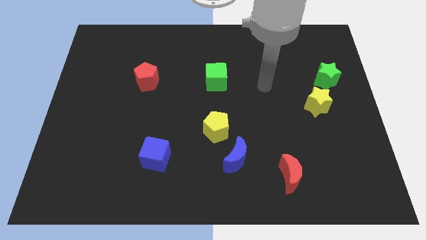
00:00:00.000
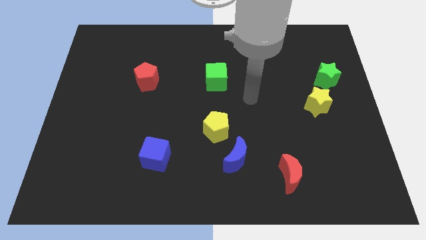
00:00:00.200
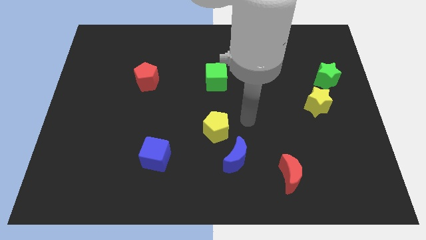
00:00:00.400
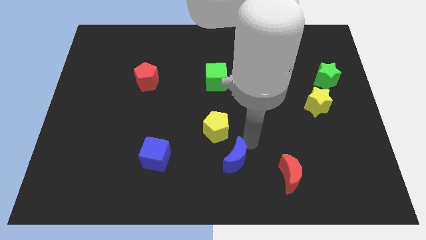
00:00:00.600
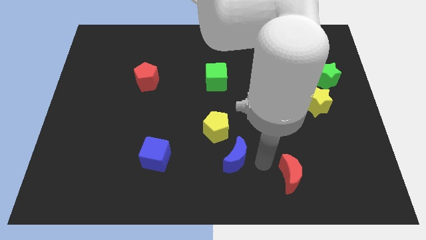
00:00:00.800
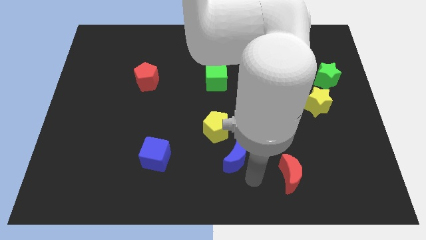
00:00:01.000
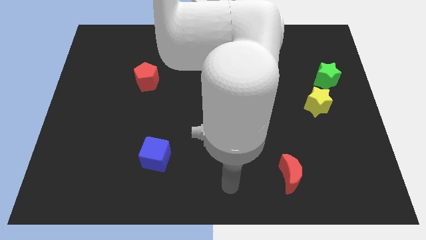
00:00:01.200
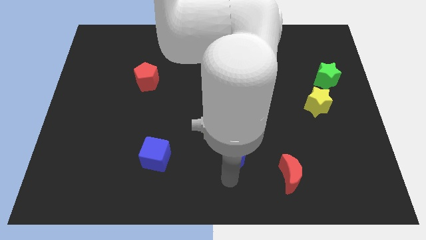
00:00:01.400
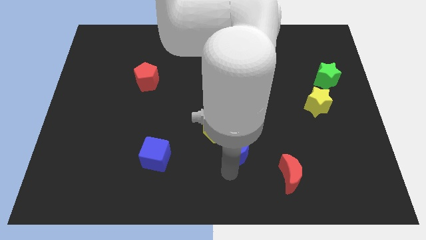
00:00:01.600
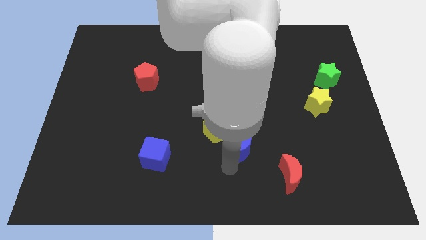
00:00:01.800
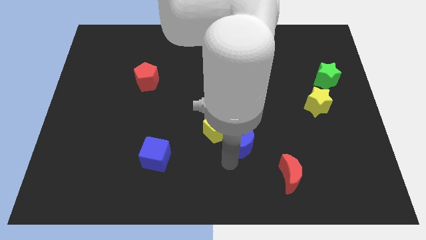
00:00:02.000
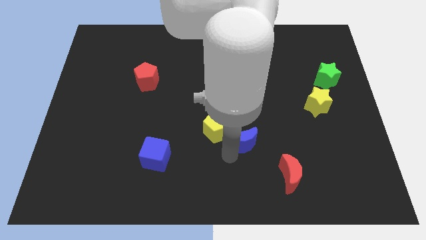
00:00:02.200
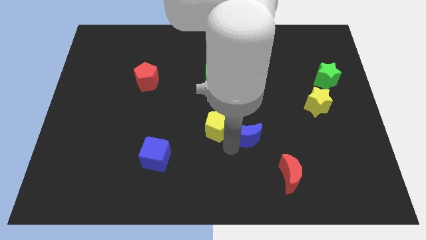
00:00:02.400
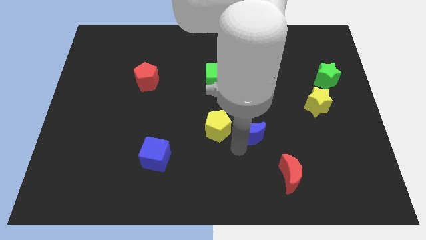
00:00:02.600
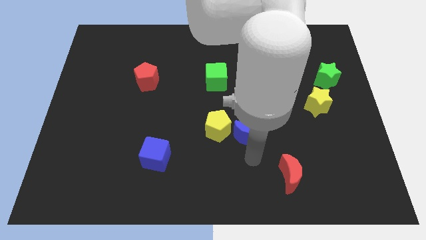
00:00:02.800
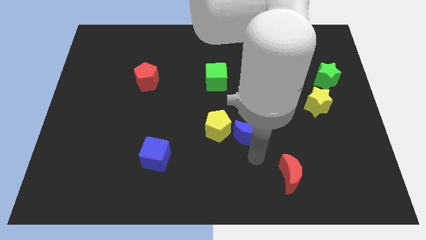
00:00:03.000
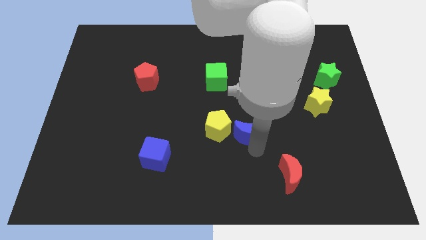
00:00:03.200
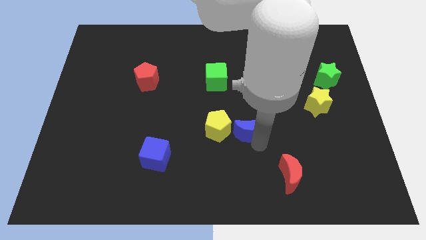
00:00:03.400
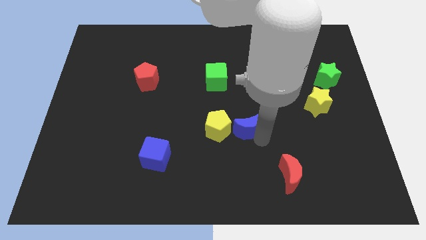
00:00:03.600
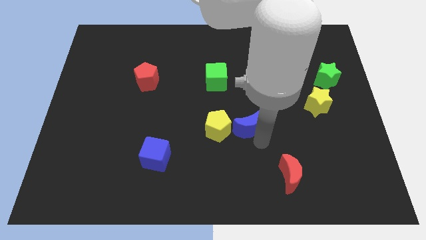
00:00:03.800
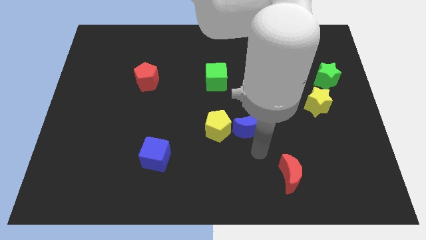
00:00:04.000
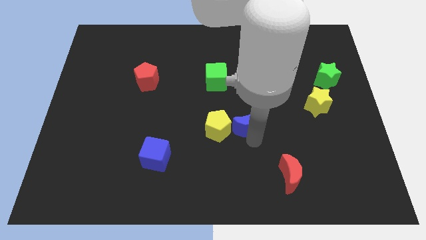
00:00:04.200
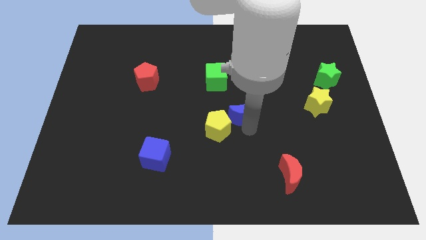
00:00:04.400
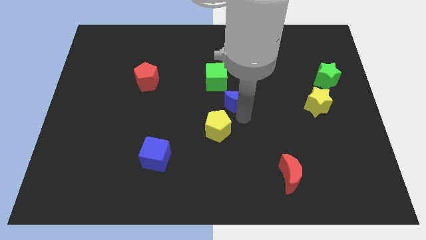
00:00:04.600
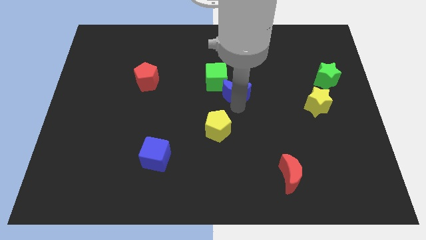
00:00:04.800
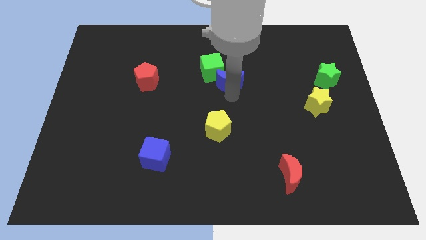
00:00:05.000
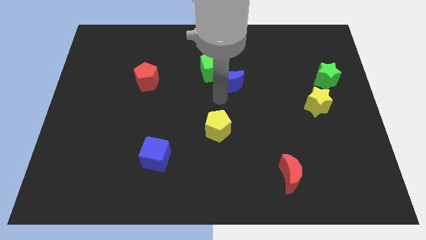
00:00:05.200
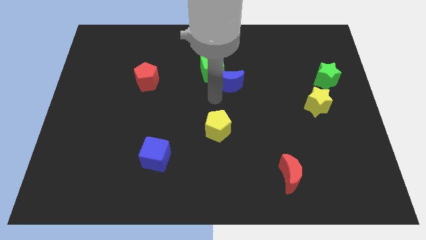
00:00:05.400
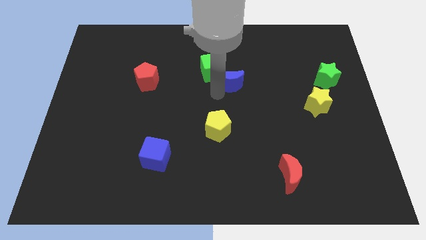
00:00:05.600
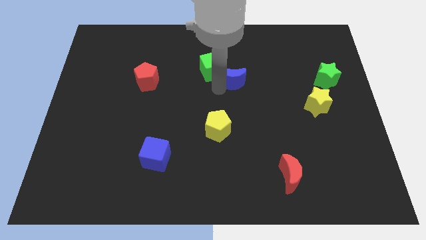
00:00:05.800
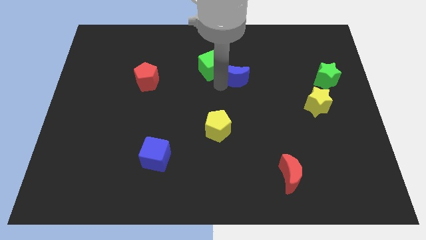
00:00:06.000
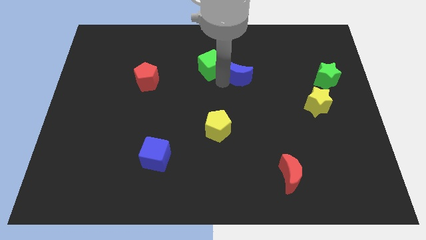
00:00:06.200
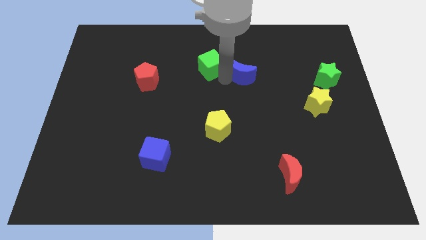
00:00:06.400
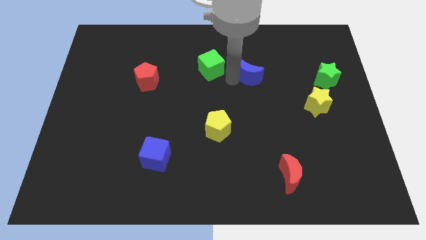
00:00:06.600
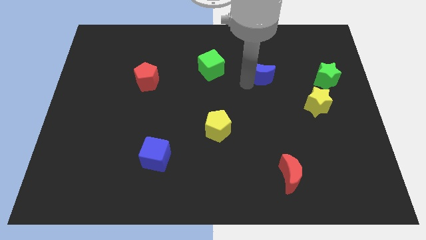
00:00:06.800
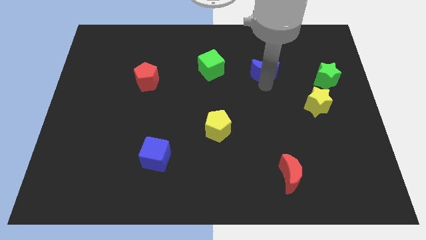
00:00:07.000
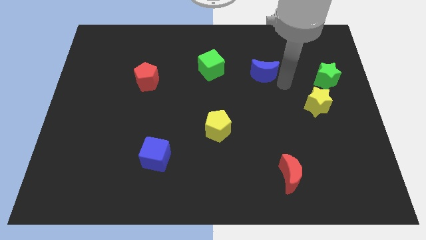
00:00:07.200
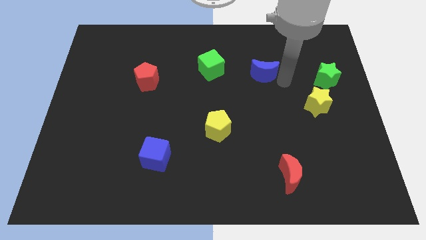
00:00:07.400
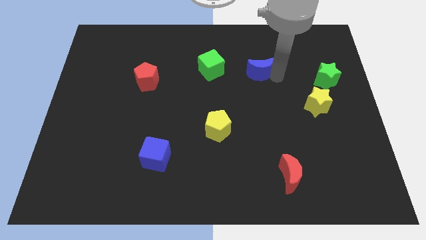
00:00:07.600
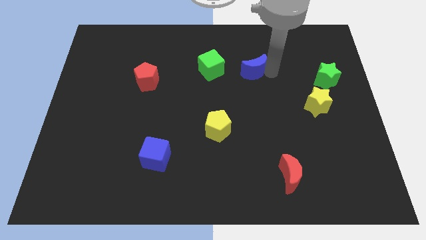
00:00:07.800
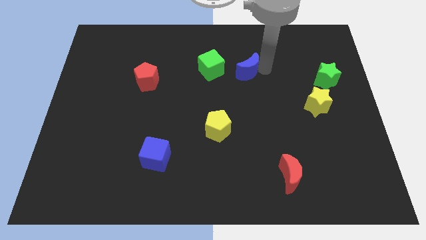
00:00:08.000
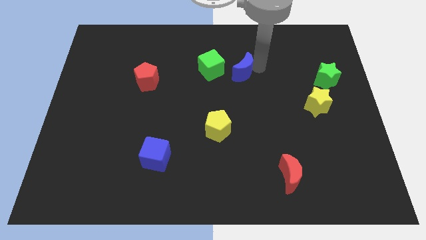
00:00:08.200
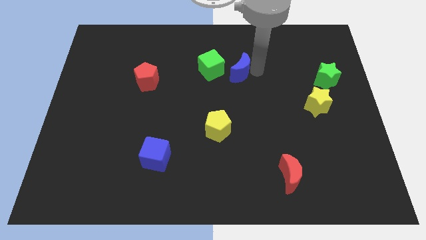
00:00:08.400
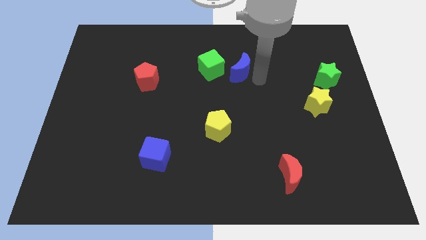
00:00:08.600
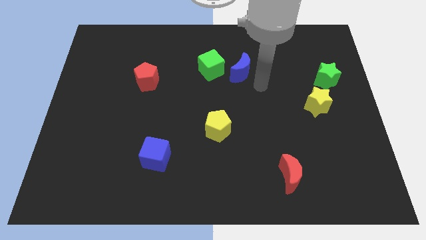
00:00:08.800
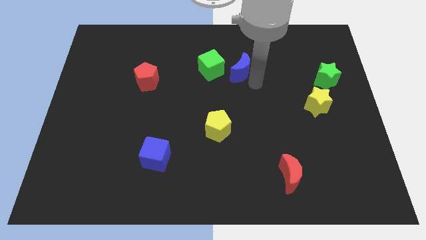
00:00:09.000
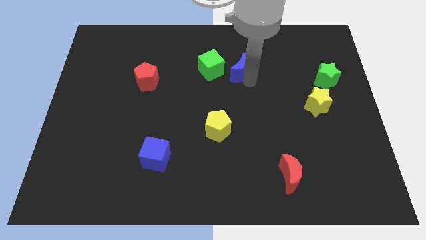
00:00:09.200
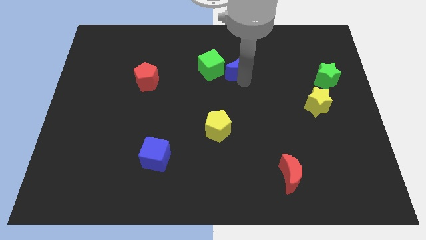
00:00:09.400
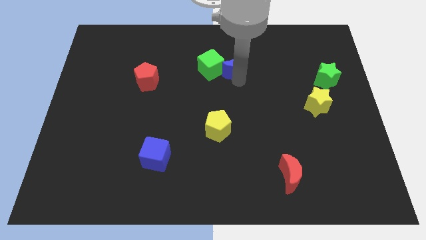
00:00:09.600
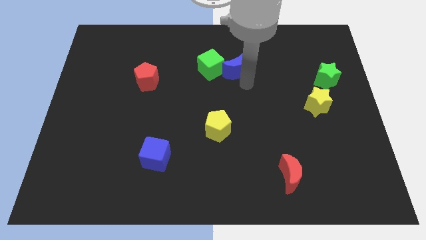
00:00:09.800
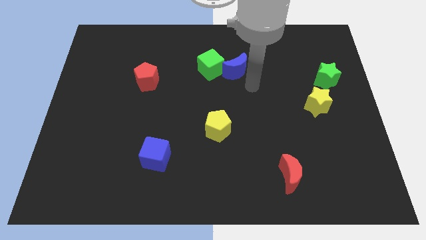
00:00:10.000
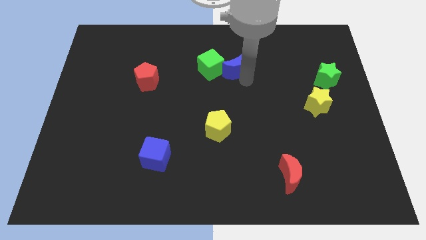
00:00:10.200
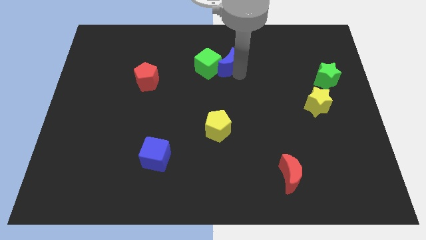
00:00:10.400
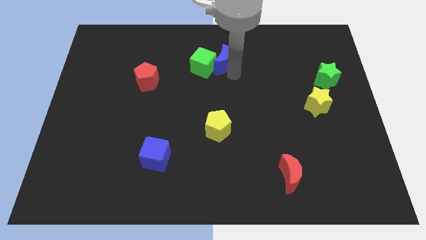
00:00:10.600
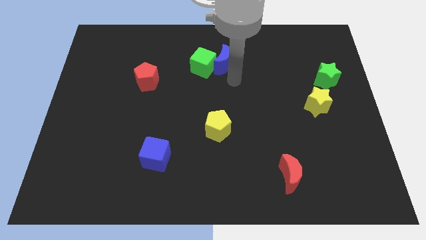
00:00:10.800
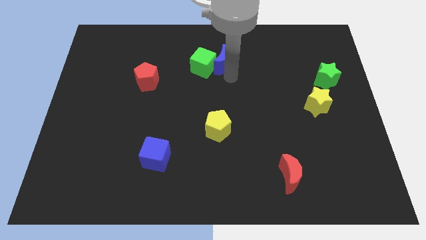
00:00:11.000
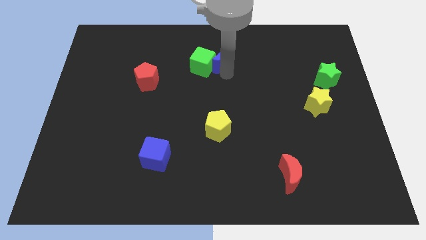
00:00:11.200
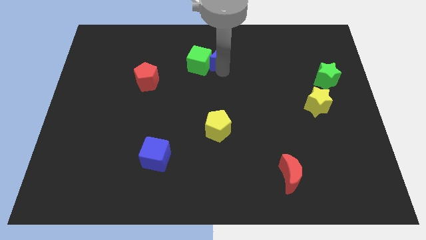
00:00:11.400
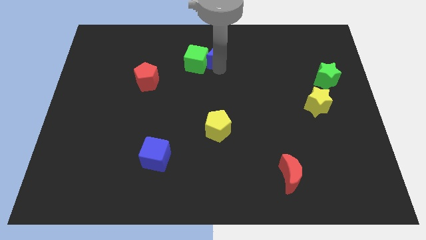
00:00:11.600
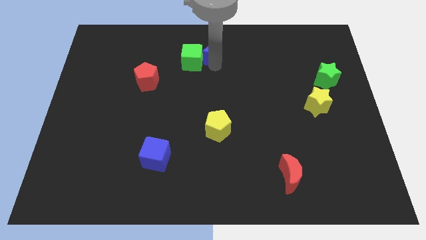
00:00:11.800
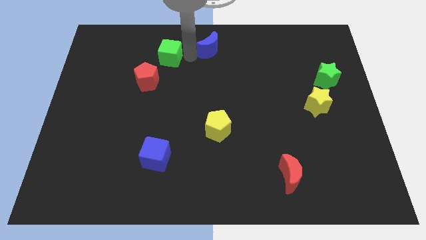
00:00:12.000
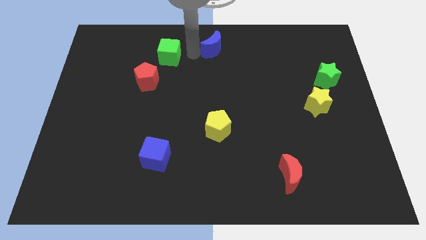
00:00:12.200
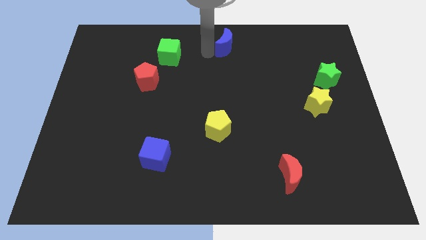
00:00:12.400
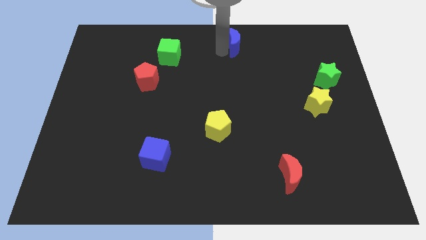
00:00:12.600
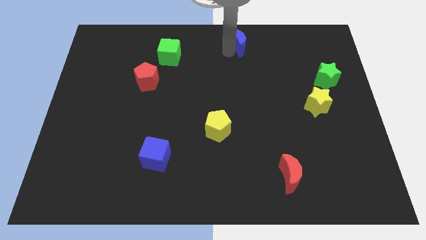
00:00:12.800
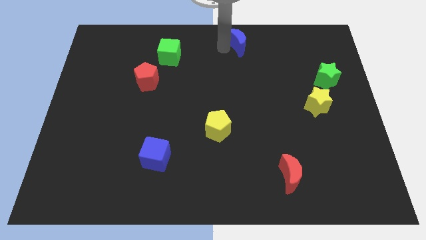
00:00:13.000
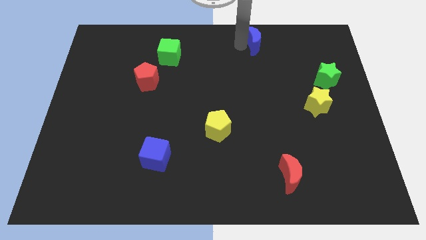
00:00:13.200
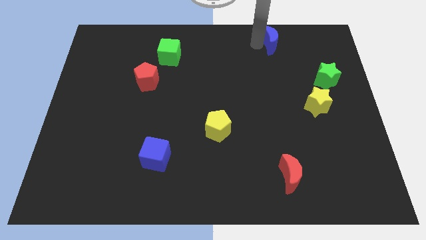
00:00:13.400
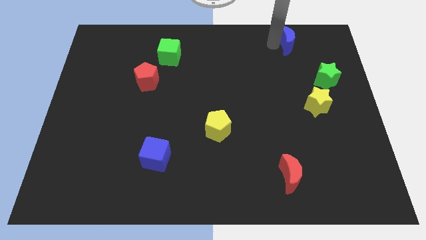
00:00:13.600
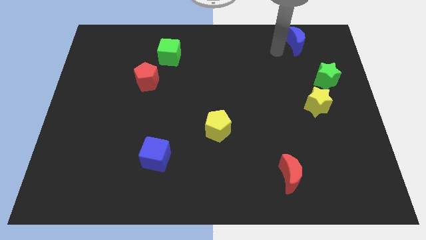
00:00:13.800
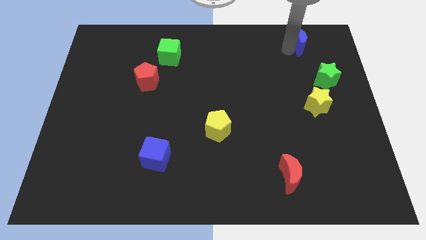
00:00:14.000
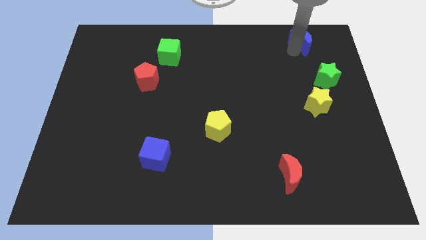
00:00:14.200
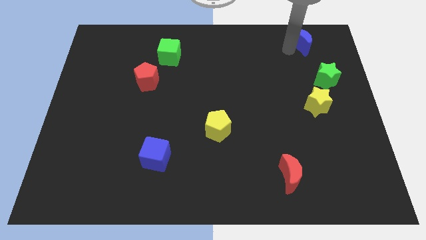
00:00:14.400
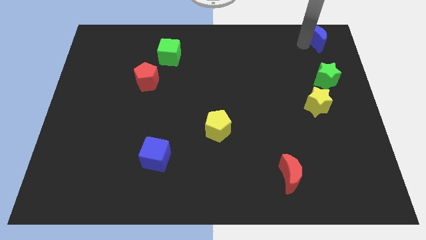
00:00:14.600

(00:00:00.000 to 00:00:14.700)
slide the blue moon to the top right
